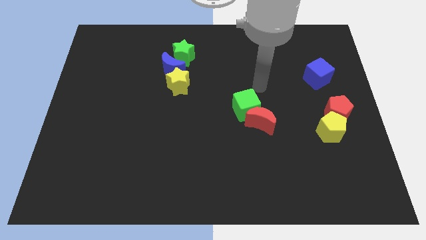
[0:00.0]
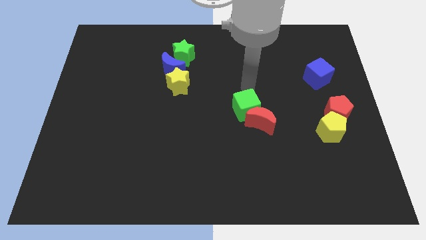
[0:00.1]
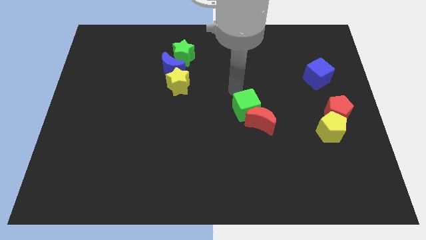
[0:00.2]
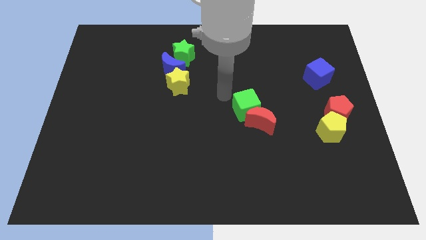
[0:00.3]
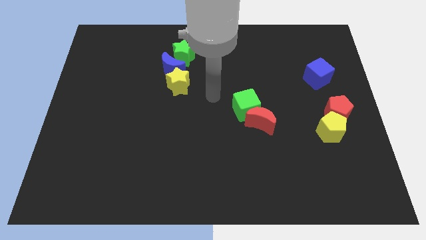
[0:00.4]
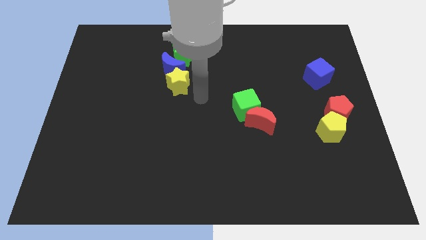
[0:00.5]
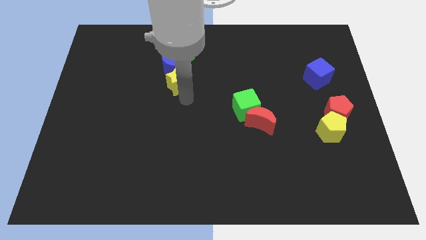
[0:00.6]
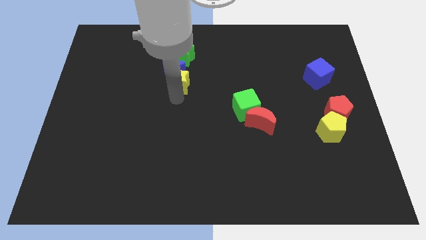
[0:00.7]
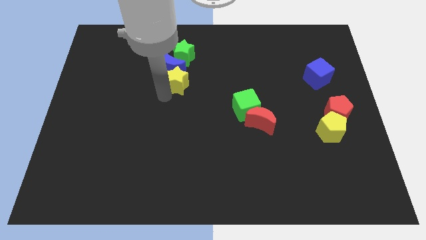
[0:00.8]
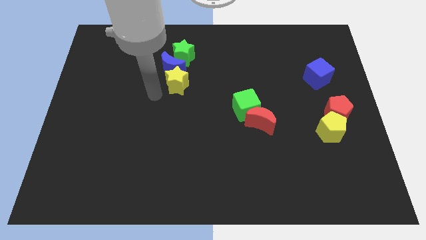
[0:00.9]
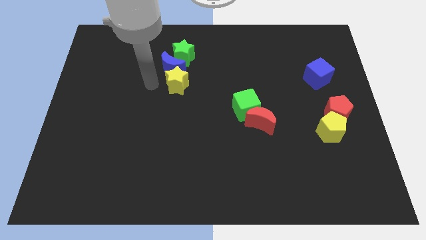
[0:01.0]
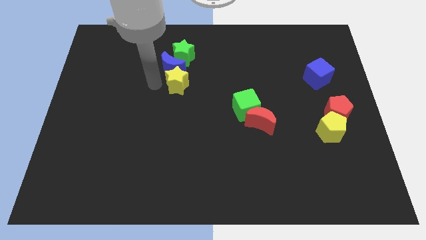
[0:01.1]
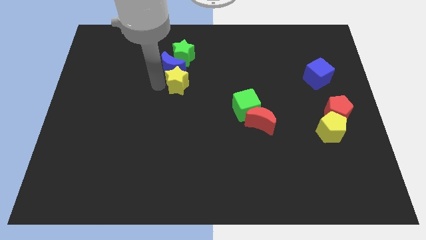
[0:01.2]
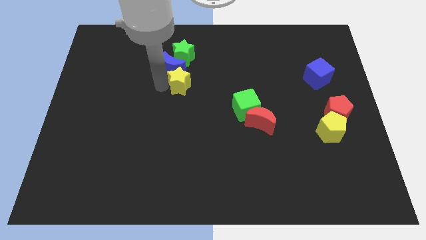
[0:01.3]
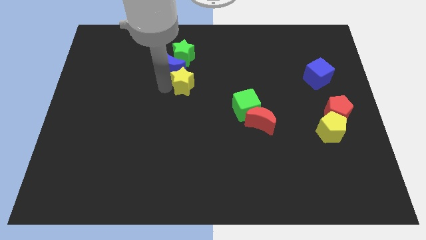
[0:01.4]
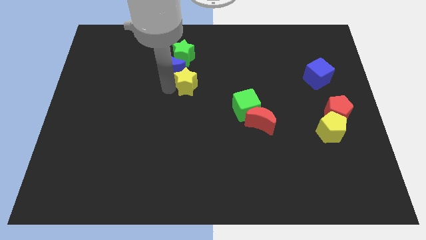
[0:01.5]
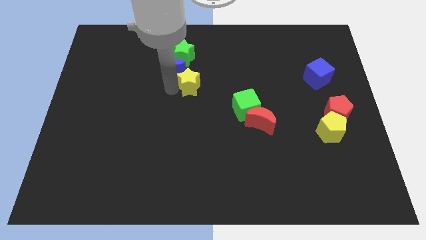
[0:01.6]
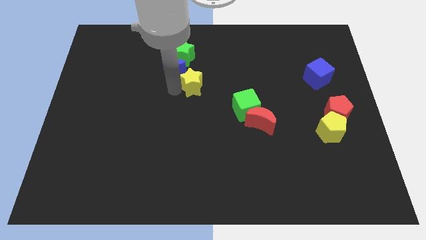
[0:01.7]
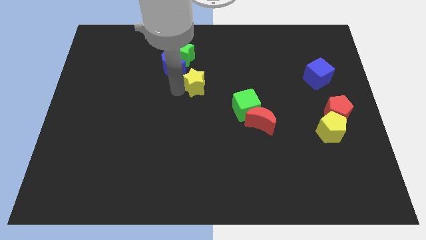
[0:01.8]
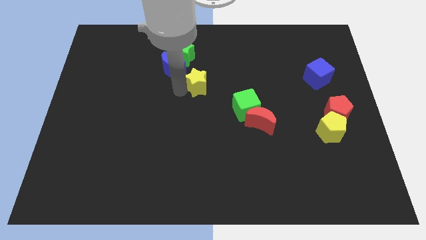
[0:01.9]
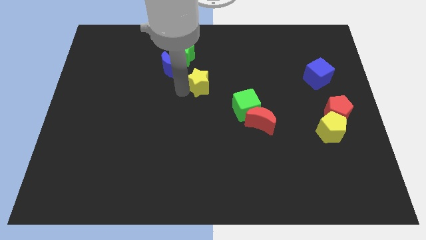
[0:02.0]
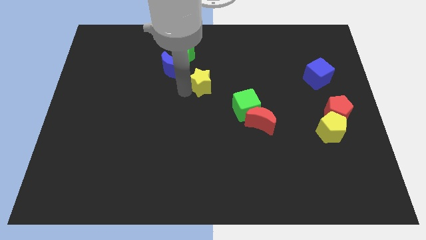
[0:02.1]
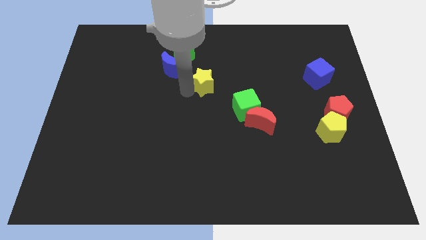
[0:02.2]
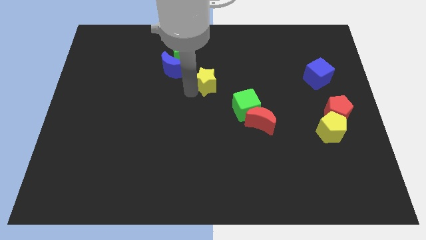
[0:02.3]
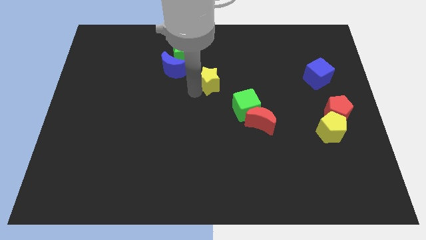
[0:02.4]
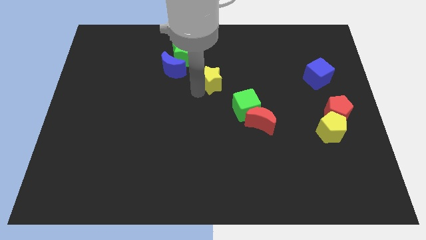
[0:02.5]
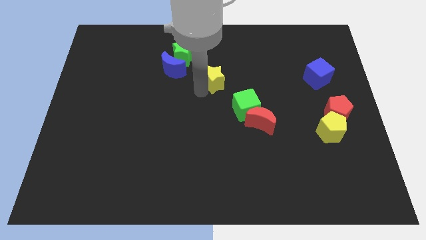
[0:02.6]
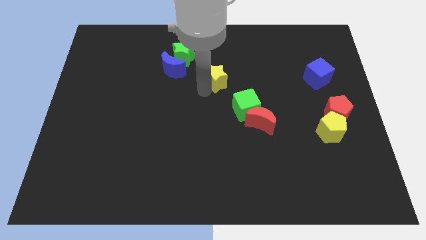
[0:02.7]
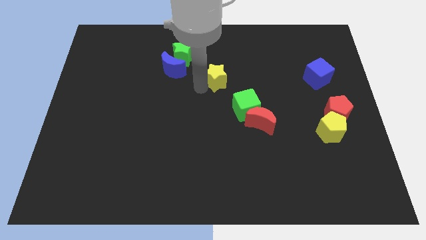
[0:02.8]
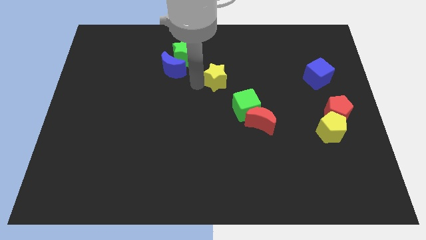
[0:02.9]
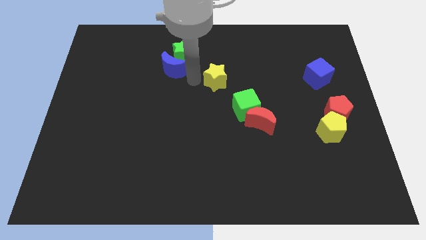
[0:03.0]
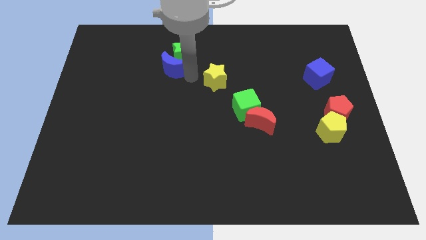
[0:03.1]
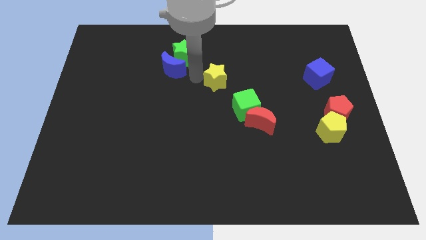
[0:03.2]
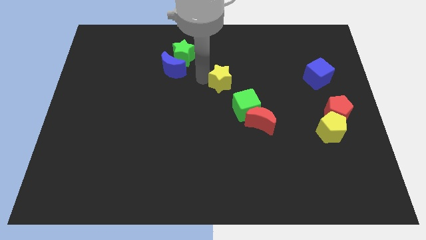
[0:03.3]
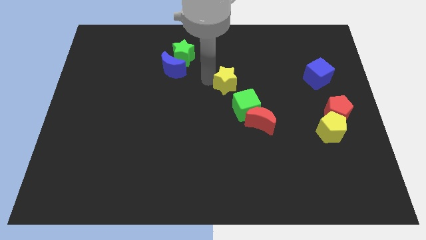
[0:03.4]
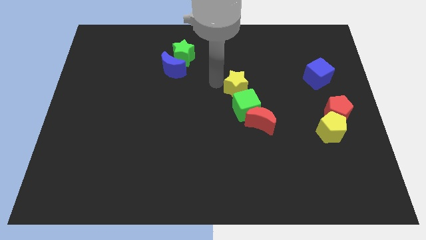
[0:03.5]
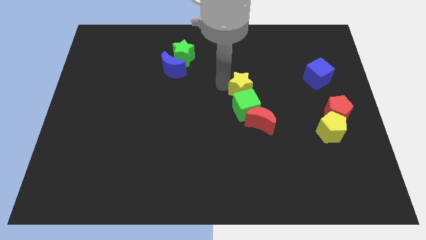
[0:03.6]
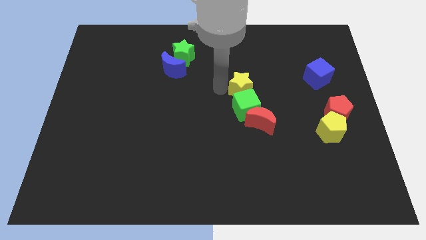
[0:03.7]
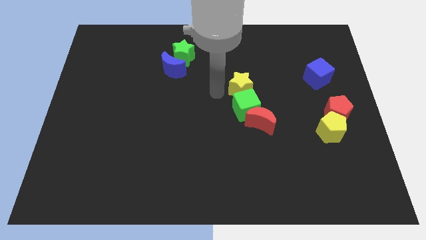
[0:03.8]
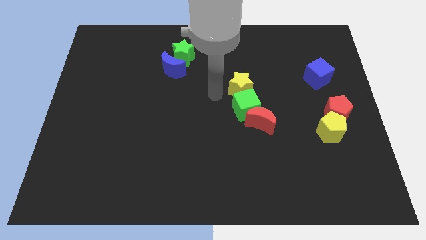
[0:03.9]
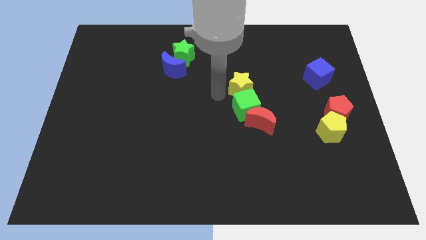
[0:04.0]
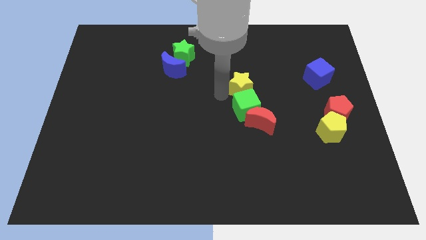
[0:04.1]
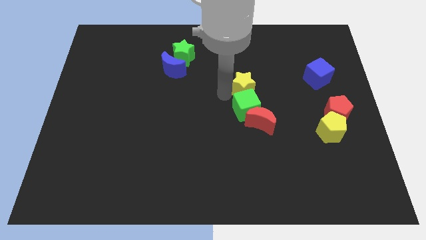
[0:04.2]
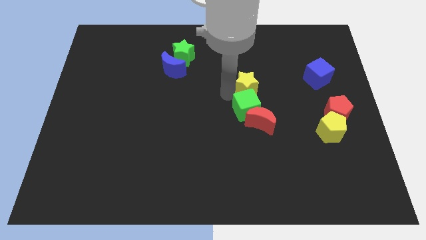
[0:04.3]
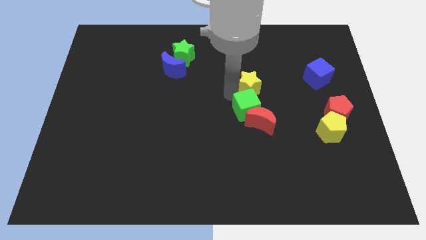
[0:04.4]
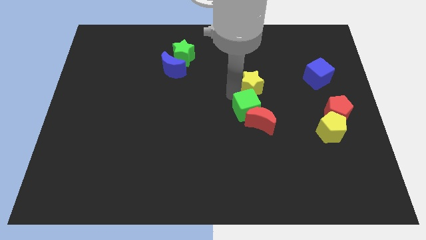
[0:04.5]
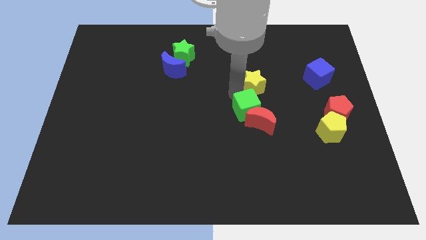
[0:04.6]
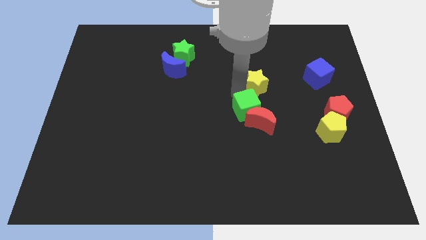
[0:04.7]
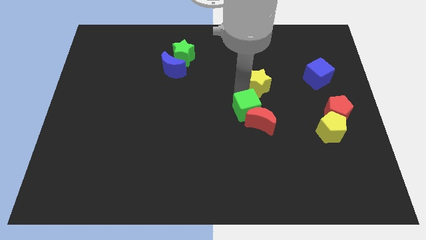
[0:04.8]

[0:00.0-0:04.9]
put the yellow star just left of the blue cube

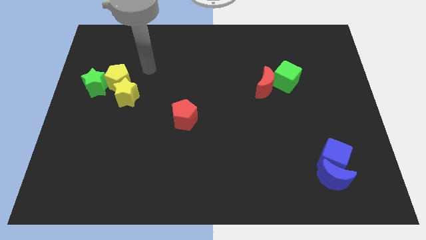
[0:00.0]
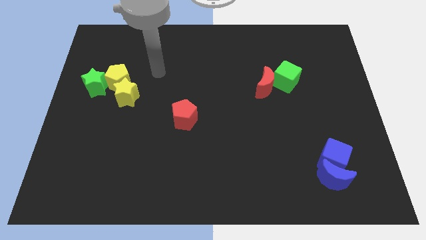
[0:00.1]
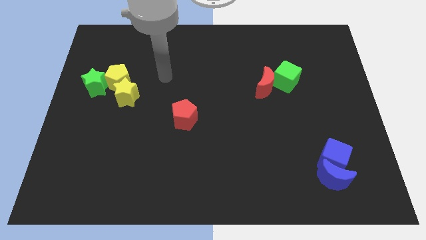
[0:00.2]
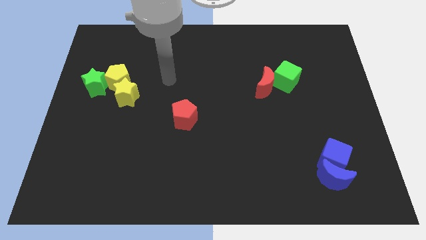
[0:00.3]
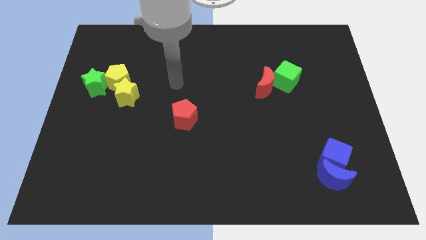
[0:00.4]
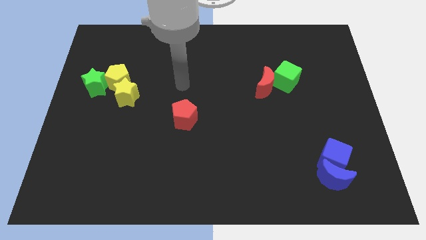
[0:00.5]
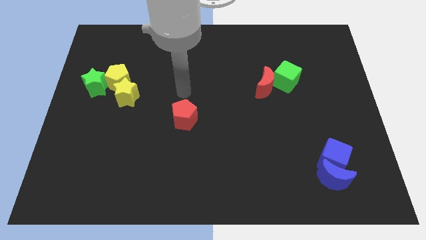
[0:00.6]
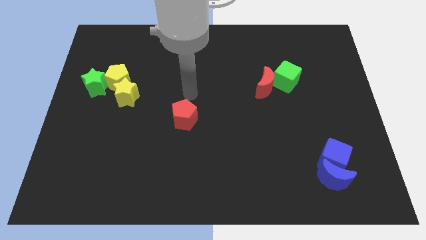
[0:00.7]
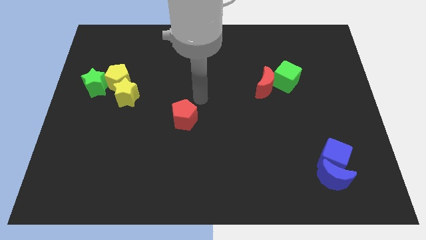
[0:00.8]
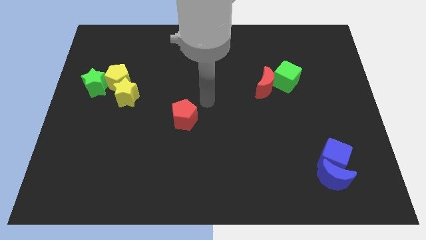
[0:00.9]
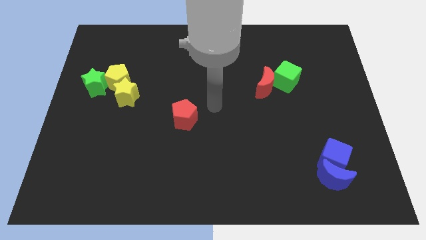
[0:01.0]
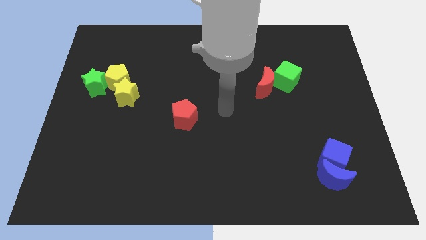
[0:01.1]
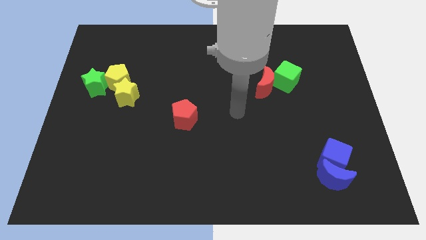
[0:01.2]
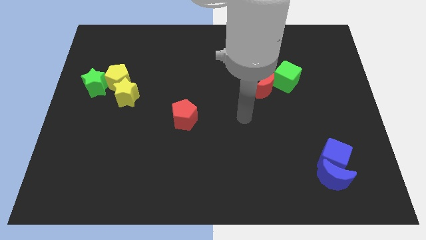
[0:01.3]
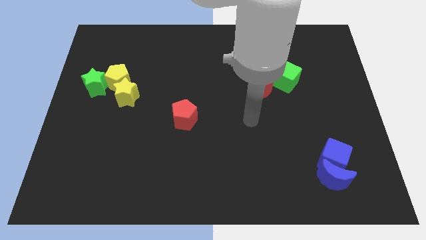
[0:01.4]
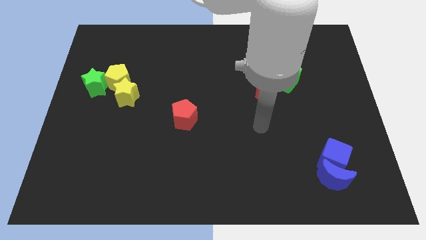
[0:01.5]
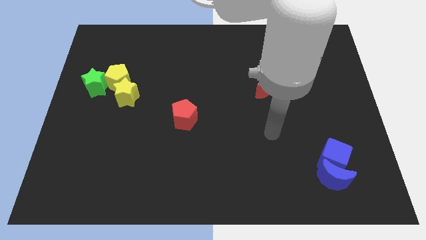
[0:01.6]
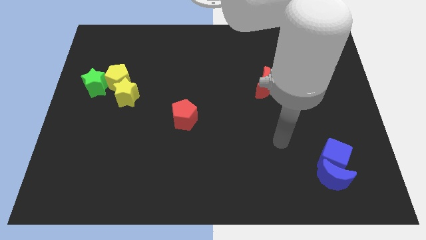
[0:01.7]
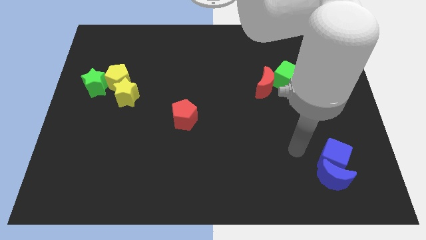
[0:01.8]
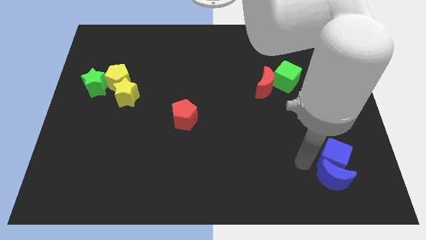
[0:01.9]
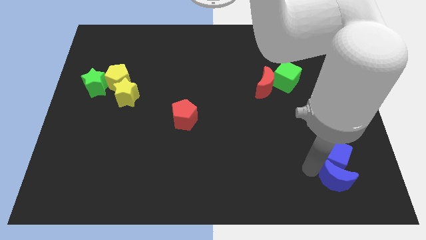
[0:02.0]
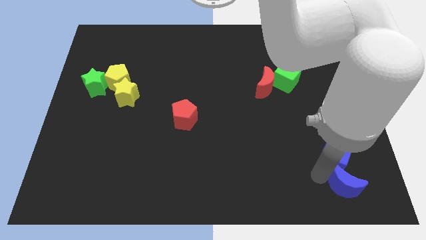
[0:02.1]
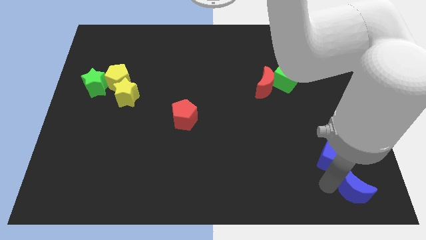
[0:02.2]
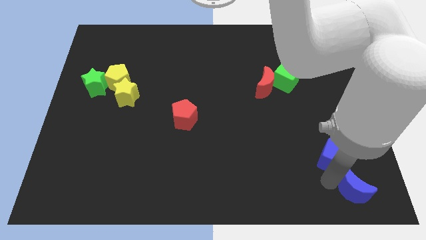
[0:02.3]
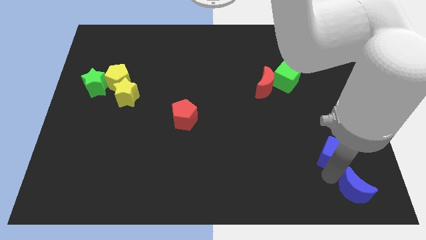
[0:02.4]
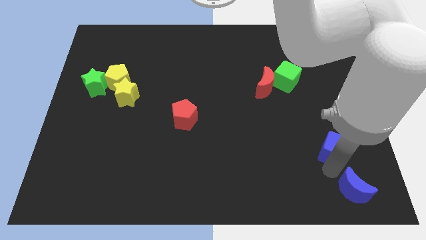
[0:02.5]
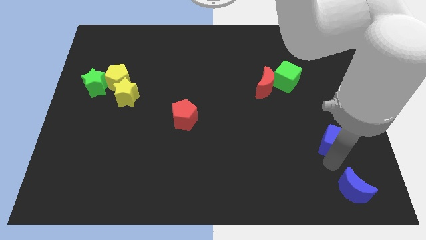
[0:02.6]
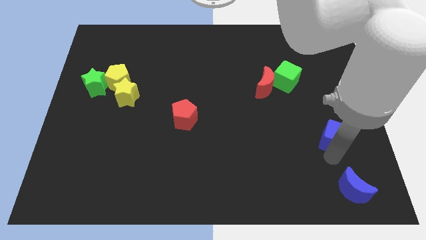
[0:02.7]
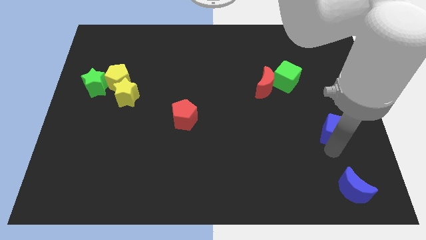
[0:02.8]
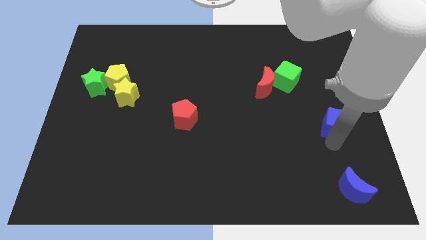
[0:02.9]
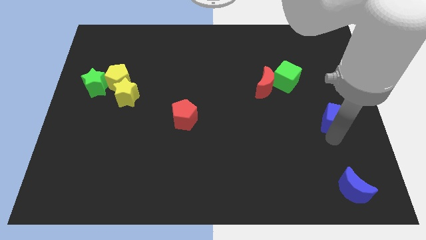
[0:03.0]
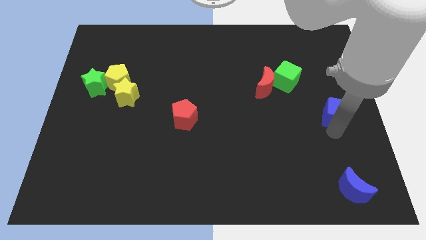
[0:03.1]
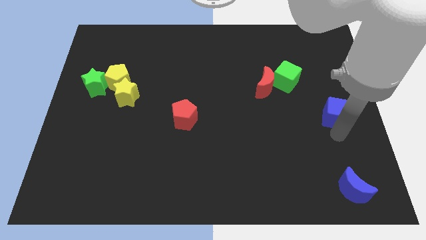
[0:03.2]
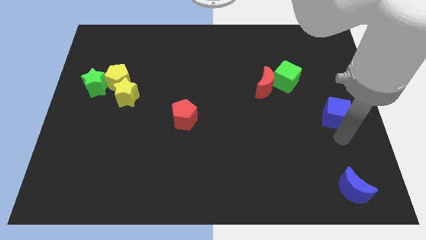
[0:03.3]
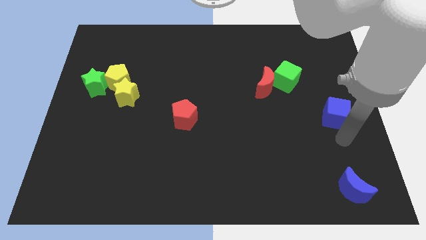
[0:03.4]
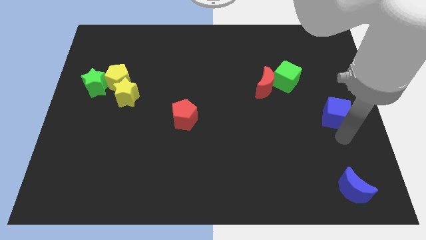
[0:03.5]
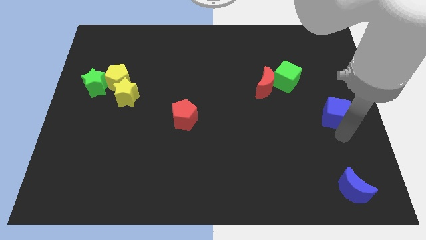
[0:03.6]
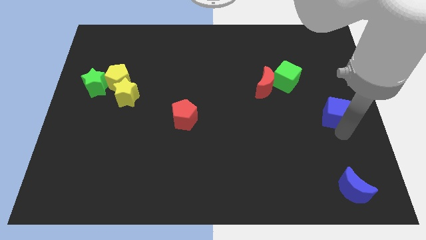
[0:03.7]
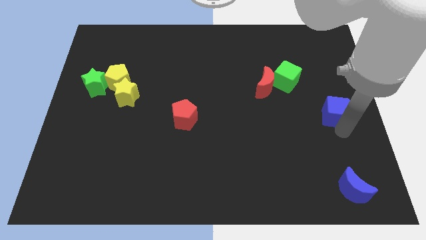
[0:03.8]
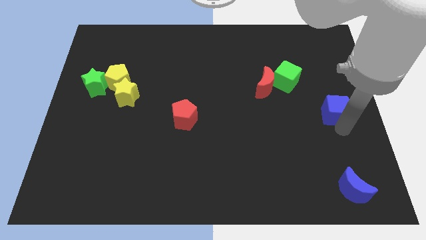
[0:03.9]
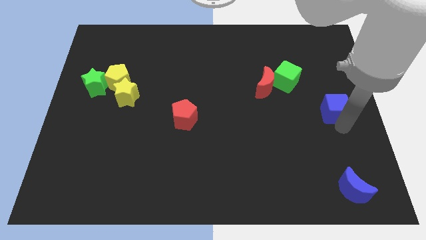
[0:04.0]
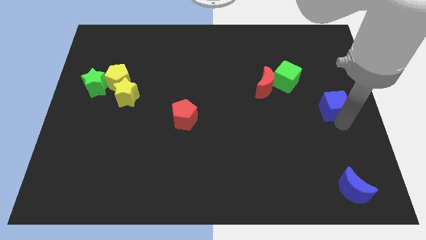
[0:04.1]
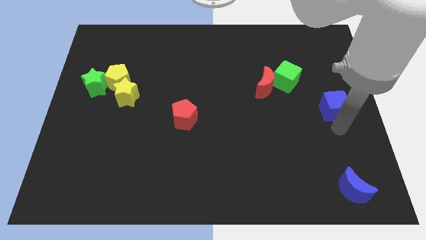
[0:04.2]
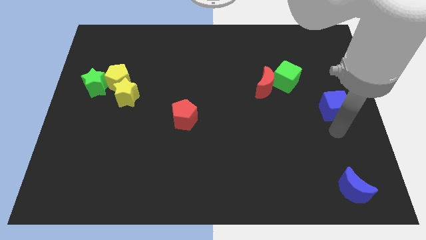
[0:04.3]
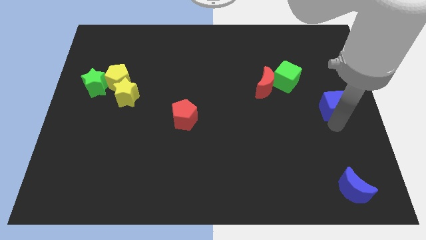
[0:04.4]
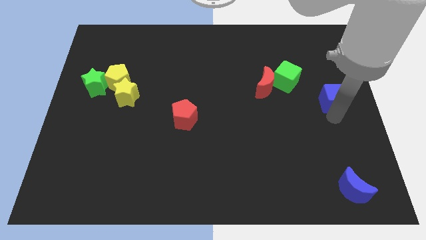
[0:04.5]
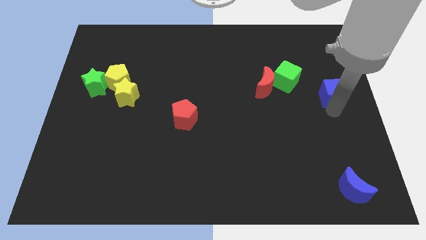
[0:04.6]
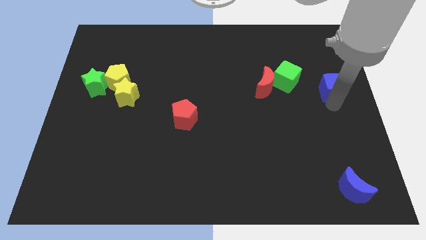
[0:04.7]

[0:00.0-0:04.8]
move the blue cube to the right side of the green cube
